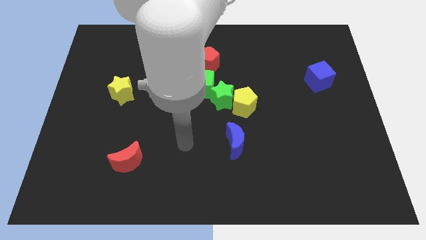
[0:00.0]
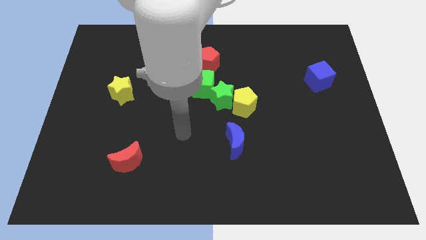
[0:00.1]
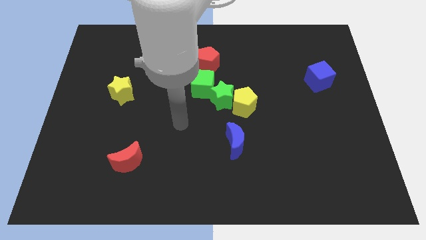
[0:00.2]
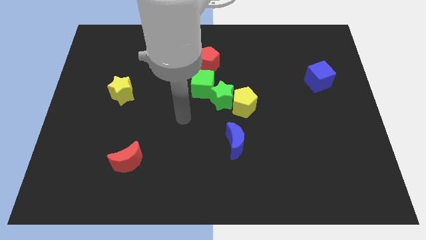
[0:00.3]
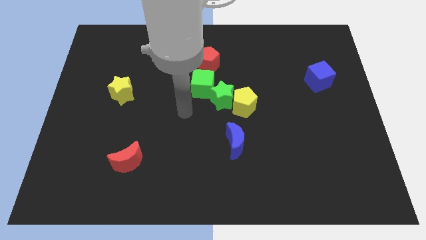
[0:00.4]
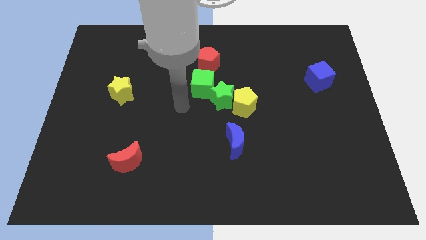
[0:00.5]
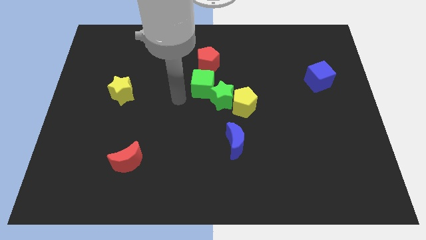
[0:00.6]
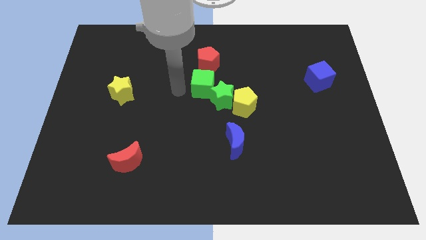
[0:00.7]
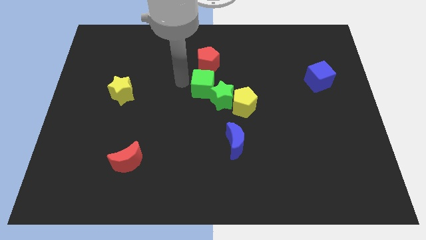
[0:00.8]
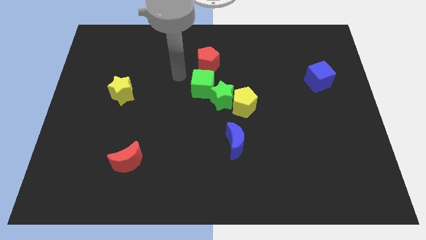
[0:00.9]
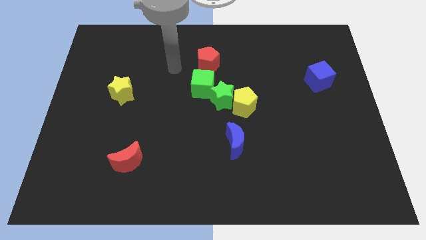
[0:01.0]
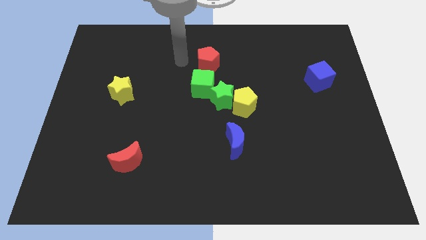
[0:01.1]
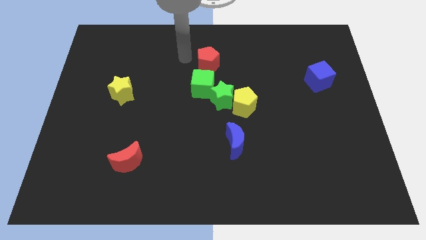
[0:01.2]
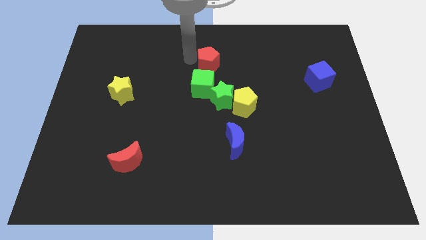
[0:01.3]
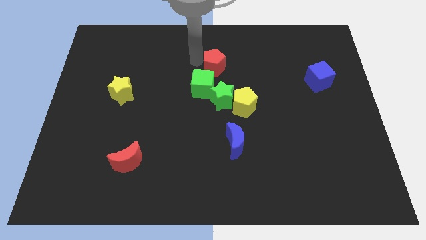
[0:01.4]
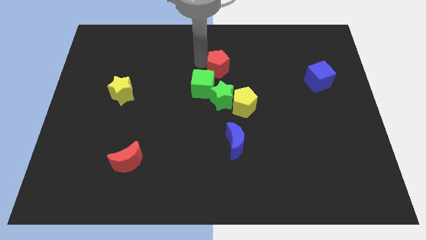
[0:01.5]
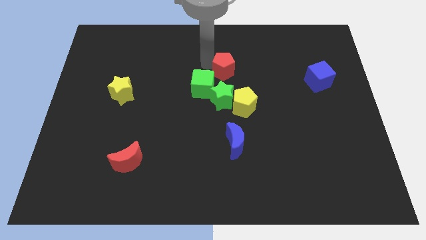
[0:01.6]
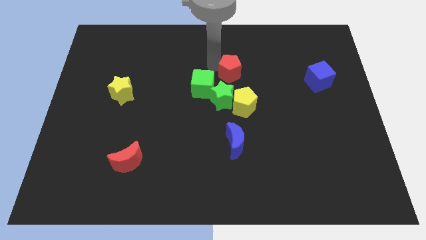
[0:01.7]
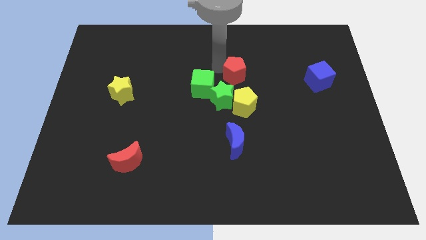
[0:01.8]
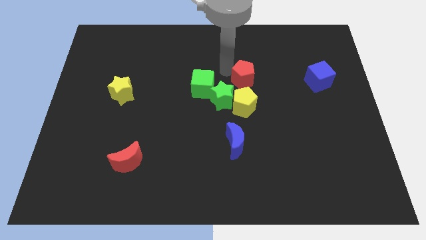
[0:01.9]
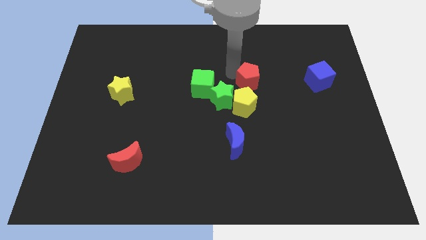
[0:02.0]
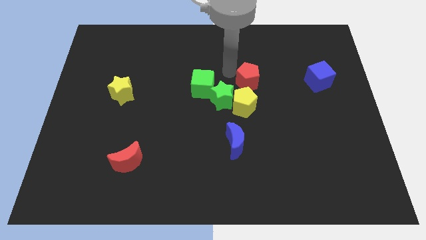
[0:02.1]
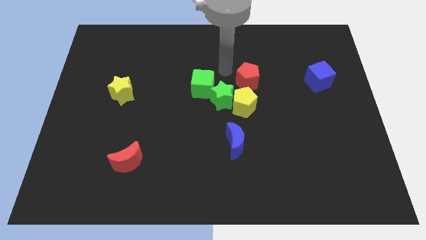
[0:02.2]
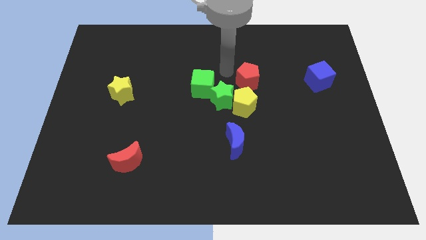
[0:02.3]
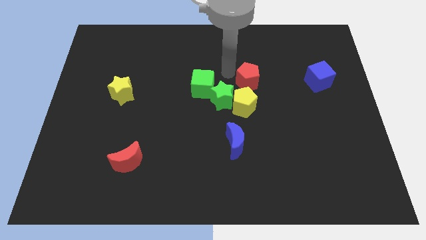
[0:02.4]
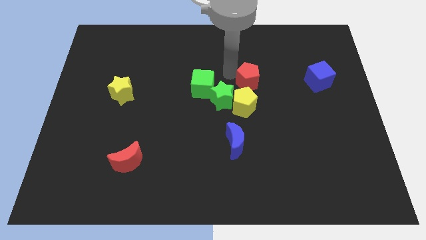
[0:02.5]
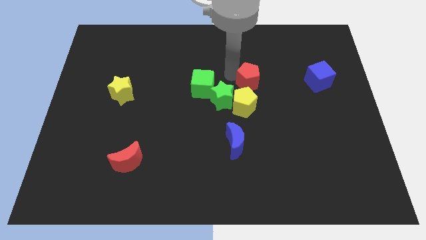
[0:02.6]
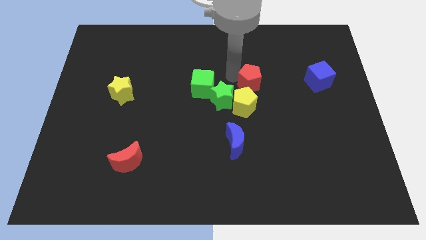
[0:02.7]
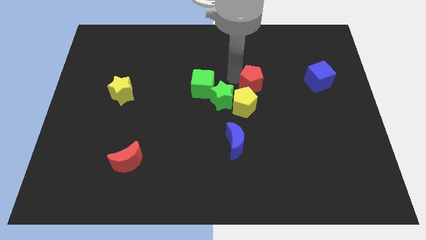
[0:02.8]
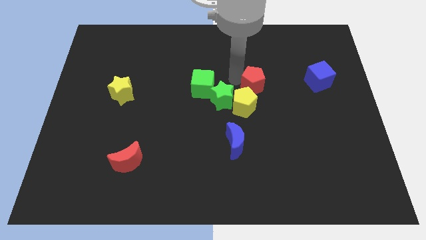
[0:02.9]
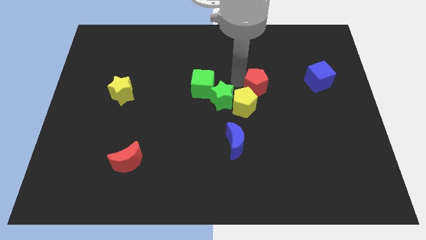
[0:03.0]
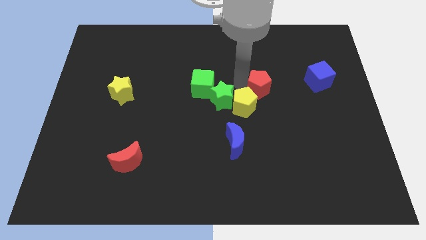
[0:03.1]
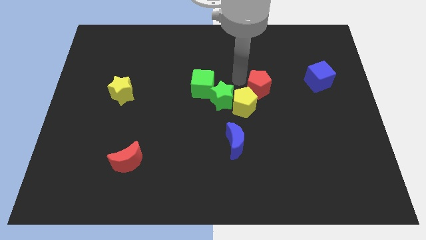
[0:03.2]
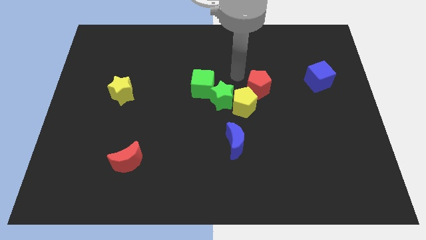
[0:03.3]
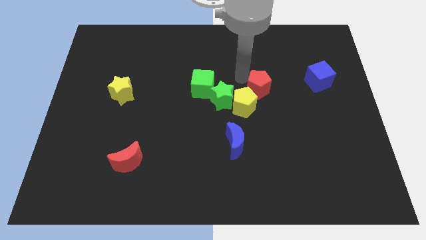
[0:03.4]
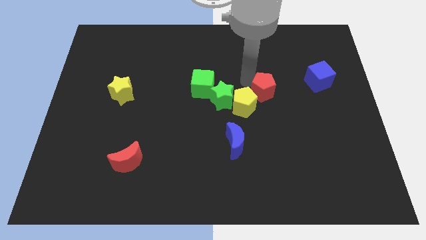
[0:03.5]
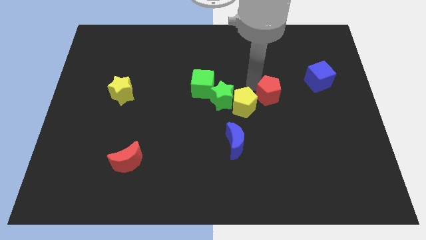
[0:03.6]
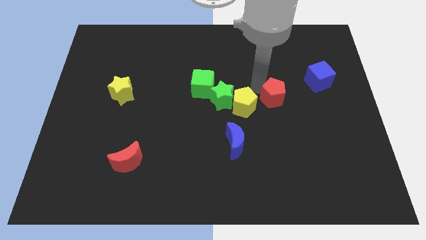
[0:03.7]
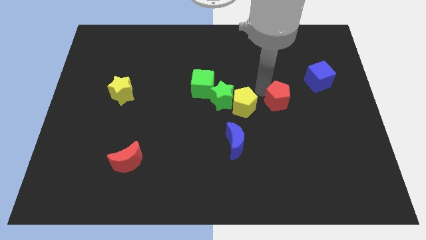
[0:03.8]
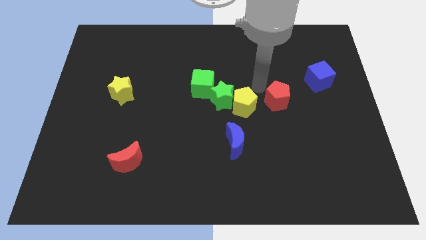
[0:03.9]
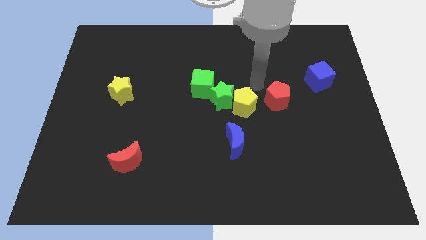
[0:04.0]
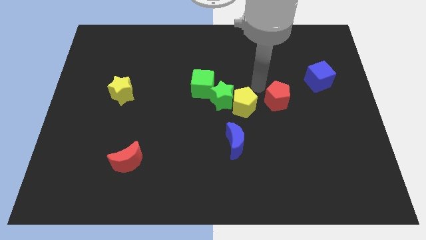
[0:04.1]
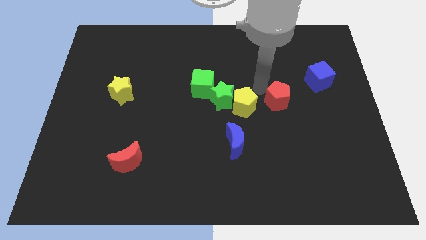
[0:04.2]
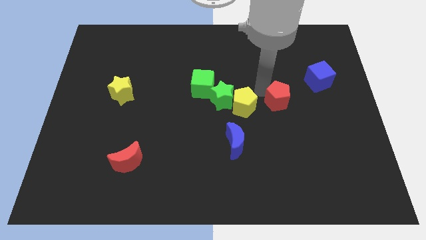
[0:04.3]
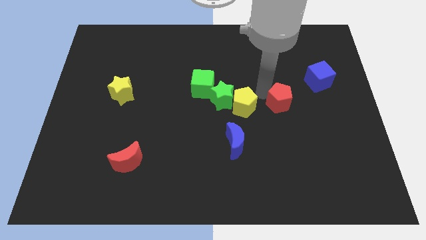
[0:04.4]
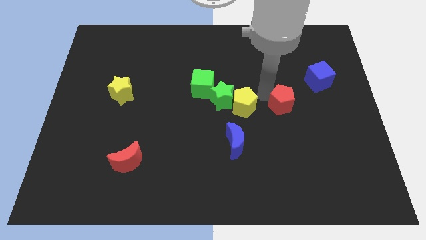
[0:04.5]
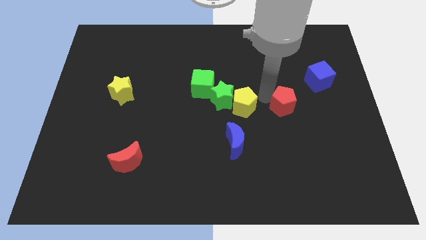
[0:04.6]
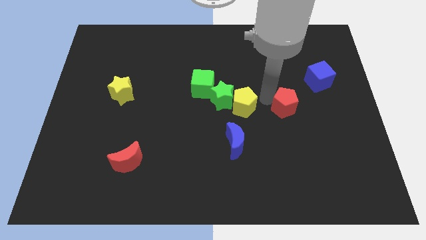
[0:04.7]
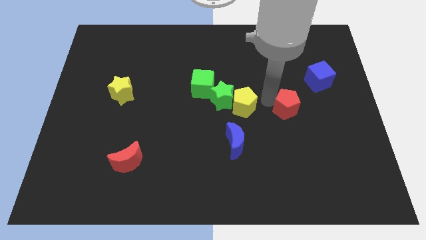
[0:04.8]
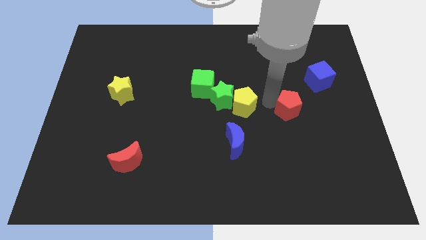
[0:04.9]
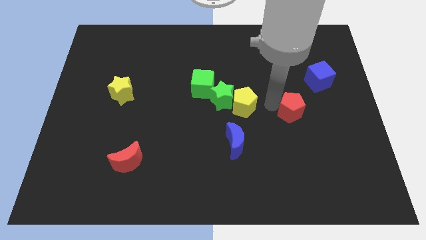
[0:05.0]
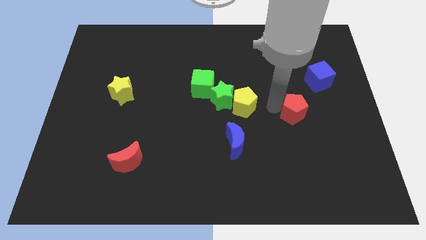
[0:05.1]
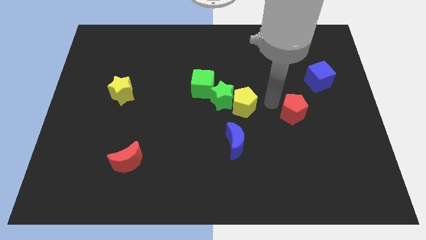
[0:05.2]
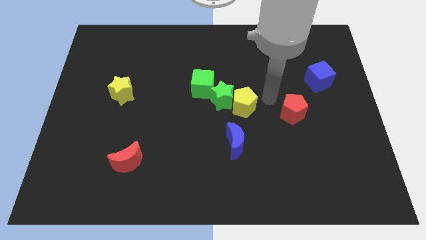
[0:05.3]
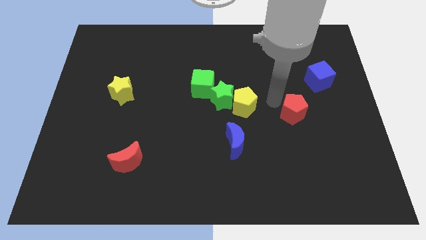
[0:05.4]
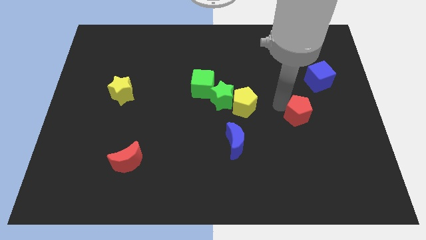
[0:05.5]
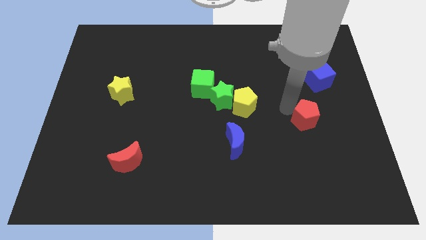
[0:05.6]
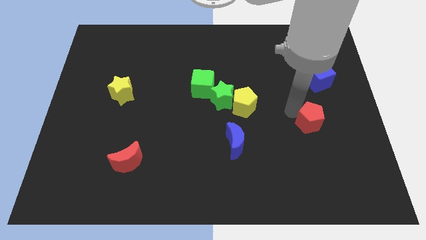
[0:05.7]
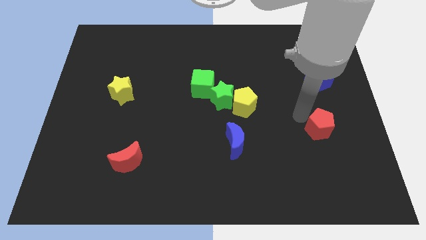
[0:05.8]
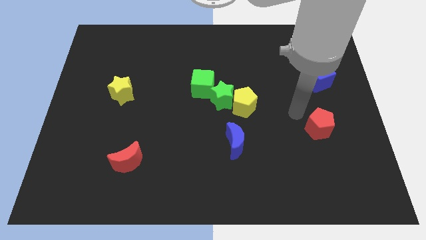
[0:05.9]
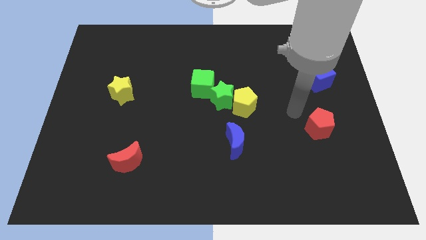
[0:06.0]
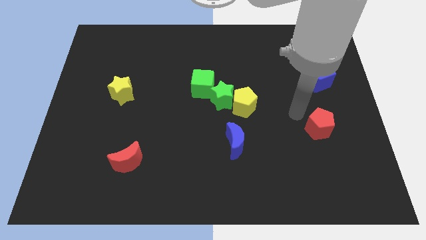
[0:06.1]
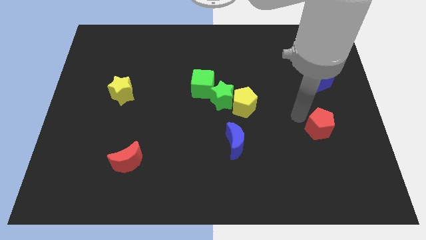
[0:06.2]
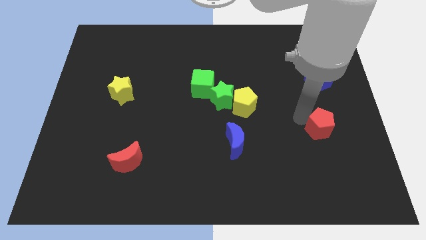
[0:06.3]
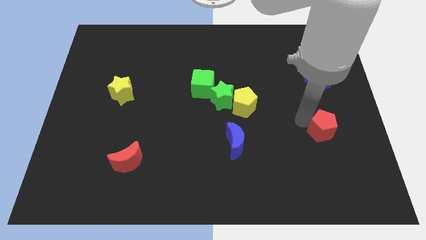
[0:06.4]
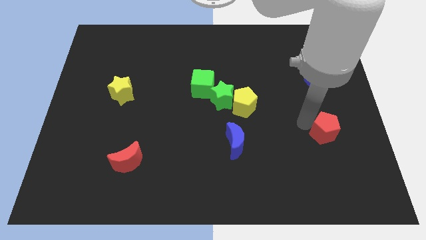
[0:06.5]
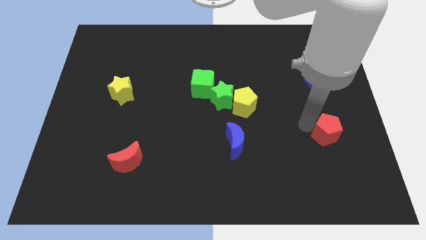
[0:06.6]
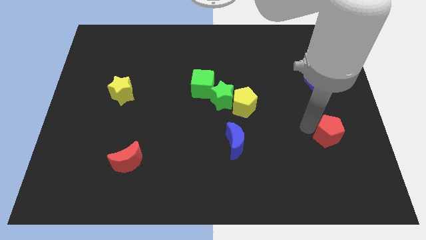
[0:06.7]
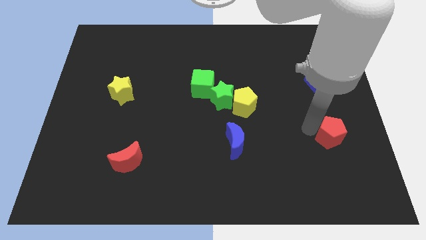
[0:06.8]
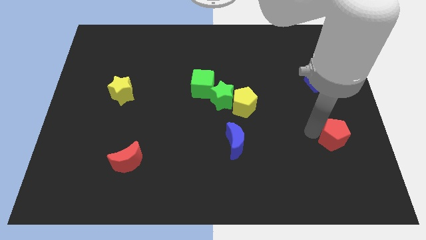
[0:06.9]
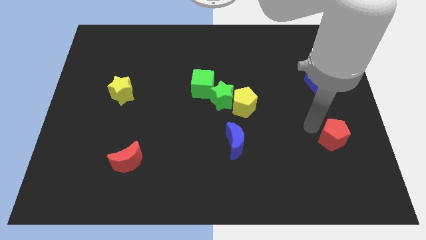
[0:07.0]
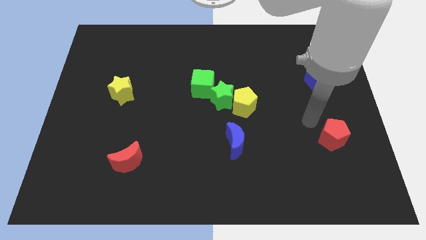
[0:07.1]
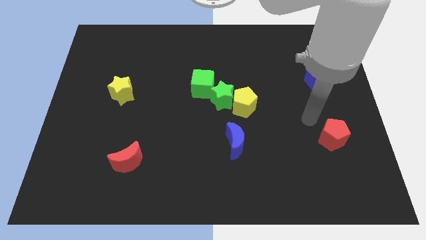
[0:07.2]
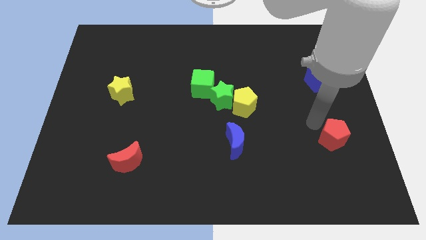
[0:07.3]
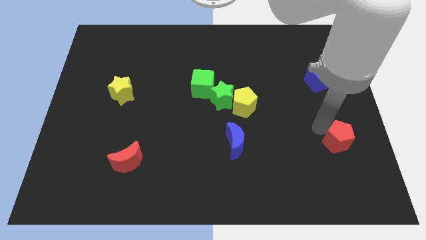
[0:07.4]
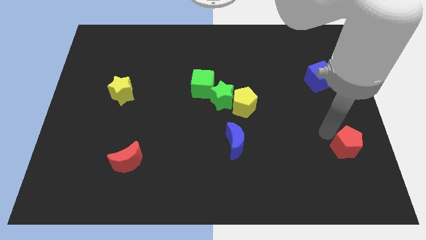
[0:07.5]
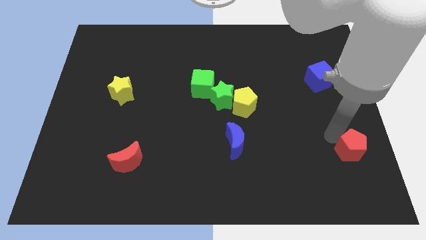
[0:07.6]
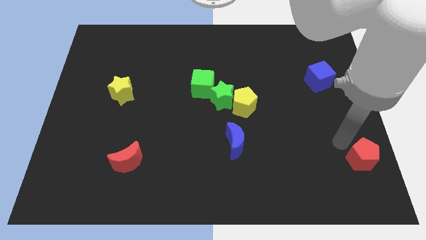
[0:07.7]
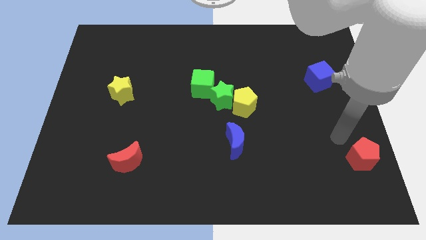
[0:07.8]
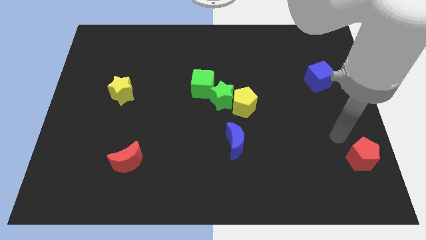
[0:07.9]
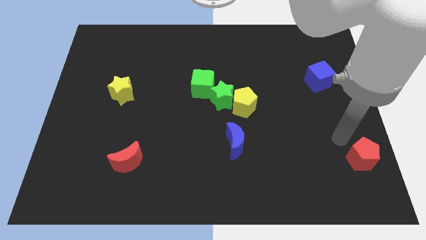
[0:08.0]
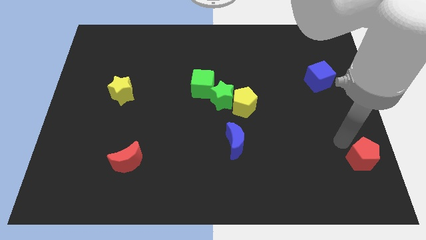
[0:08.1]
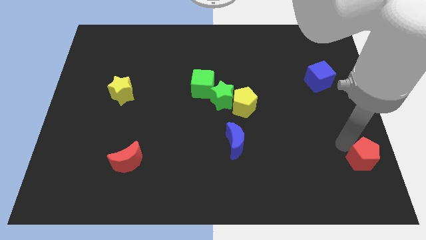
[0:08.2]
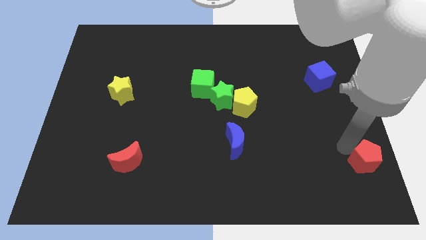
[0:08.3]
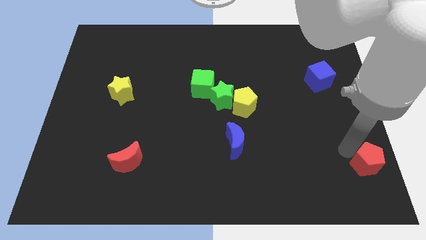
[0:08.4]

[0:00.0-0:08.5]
push the red pentagon to the bottom right
